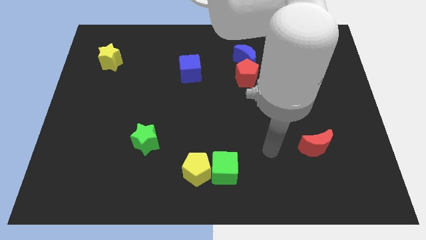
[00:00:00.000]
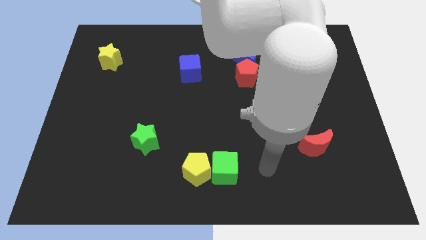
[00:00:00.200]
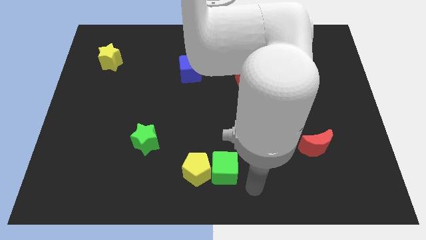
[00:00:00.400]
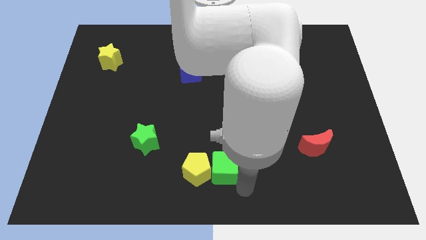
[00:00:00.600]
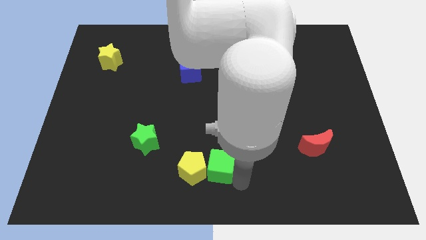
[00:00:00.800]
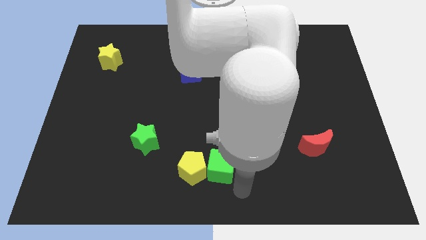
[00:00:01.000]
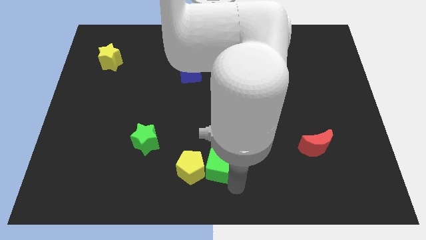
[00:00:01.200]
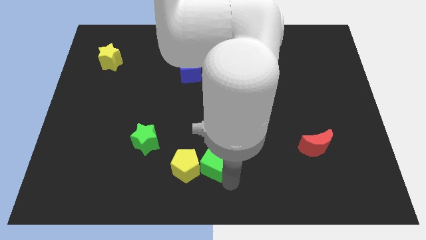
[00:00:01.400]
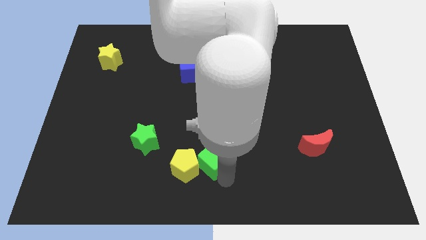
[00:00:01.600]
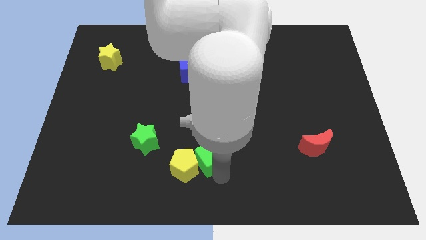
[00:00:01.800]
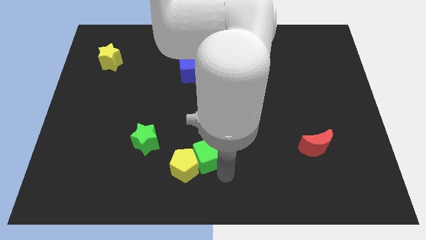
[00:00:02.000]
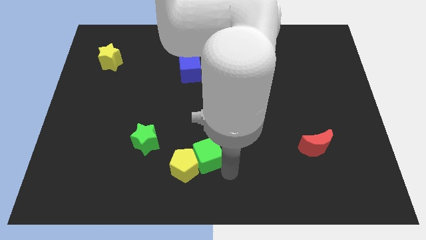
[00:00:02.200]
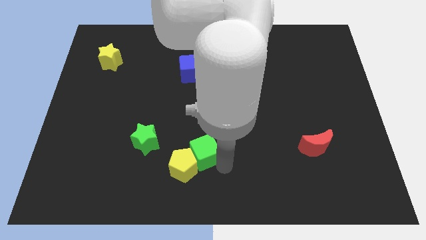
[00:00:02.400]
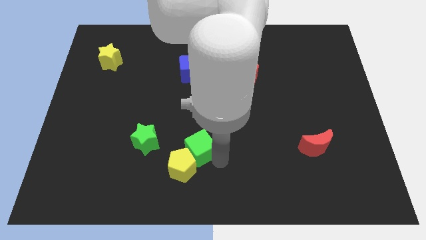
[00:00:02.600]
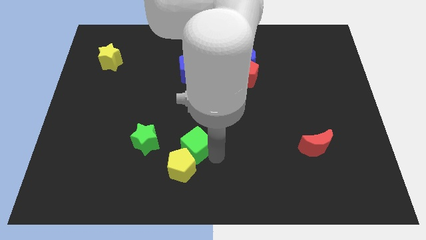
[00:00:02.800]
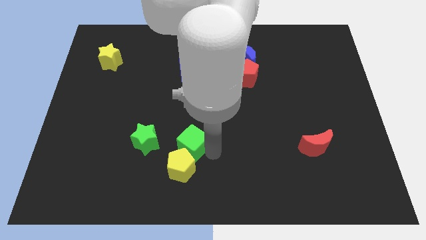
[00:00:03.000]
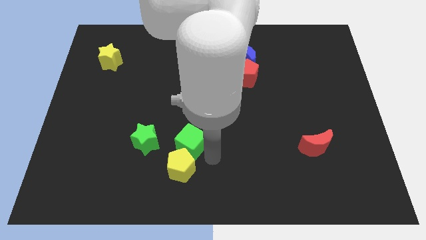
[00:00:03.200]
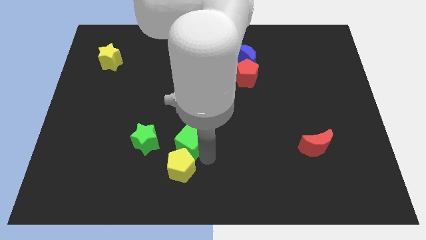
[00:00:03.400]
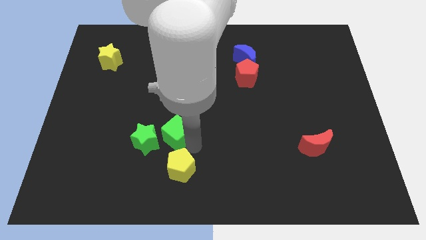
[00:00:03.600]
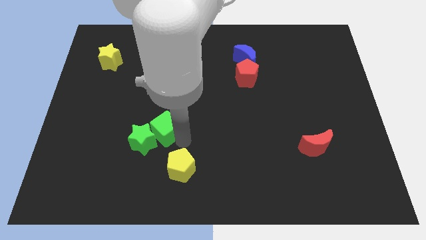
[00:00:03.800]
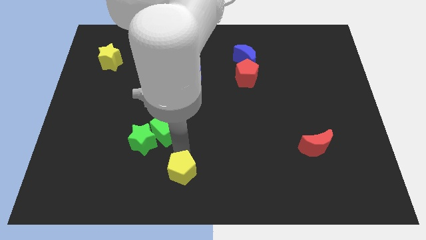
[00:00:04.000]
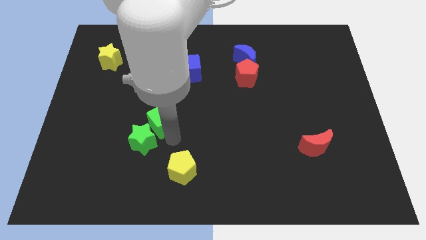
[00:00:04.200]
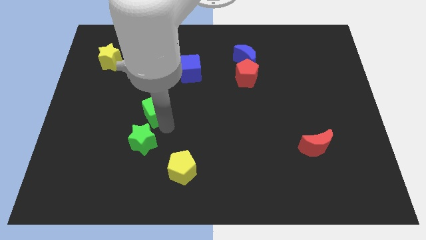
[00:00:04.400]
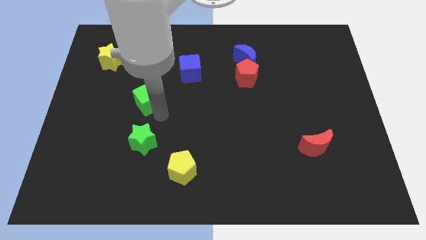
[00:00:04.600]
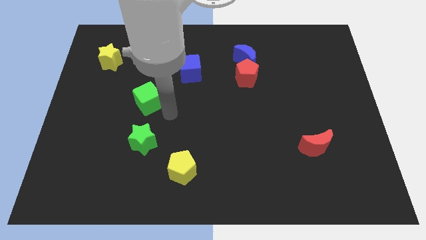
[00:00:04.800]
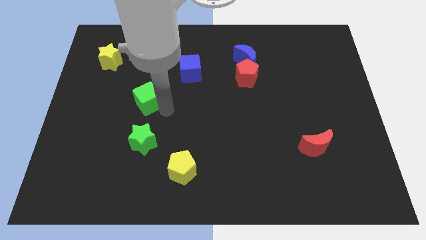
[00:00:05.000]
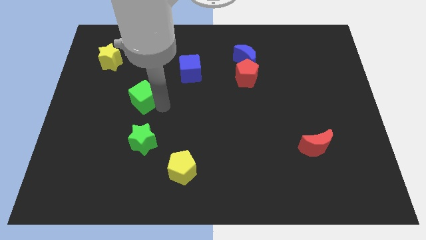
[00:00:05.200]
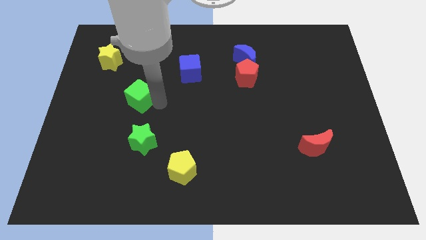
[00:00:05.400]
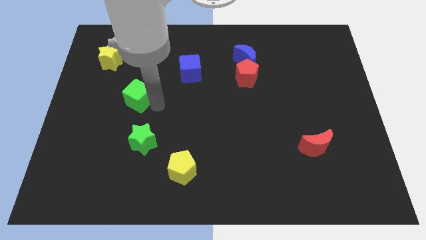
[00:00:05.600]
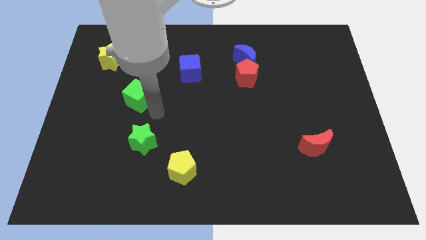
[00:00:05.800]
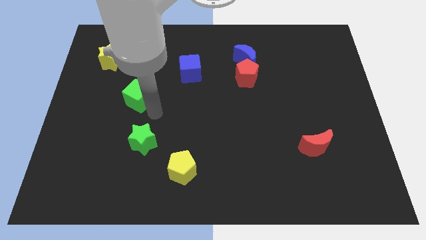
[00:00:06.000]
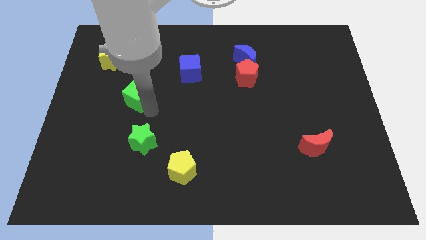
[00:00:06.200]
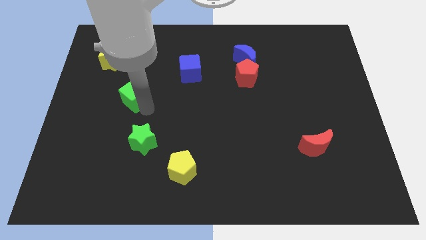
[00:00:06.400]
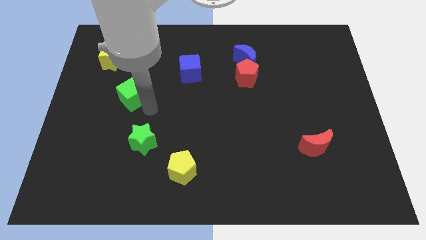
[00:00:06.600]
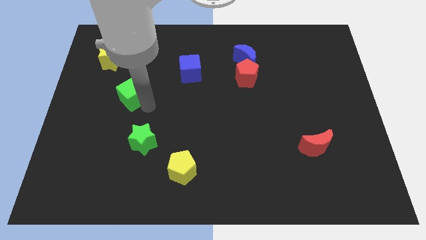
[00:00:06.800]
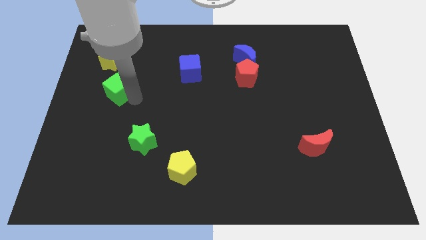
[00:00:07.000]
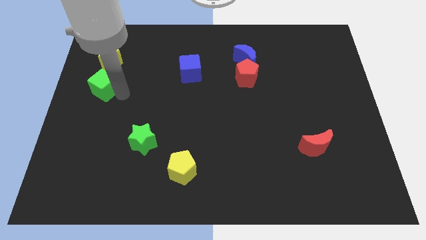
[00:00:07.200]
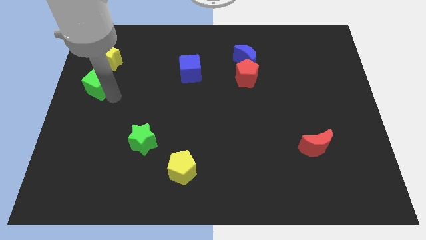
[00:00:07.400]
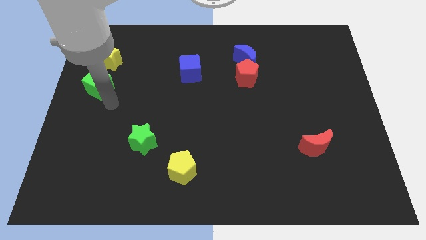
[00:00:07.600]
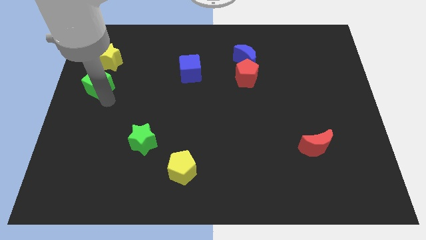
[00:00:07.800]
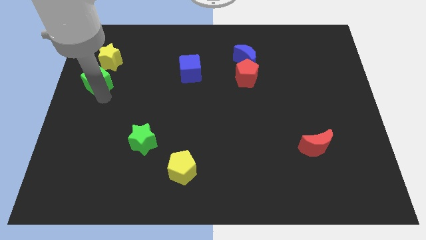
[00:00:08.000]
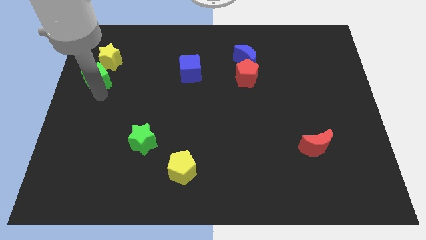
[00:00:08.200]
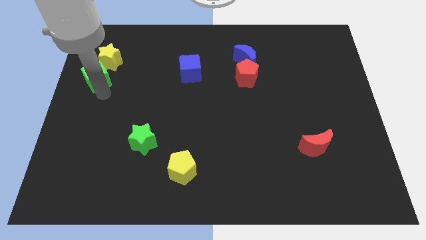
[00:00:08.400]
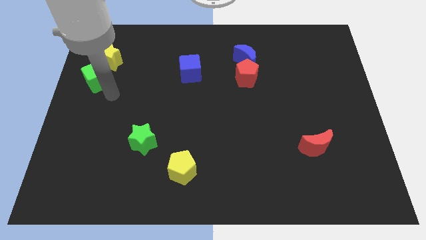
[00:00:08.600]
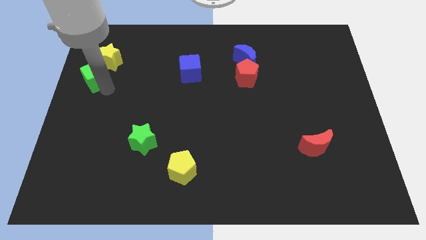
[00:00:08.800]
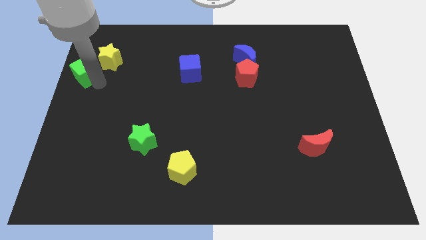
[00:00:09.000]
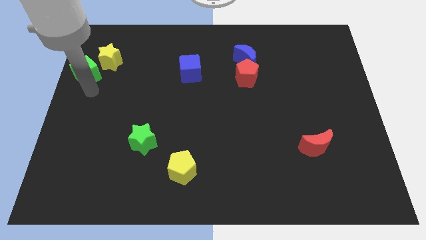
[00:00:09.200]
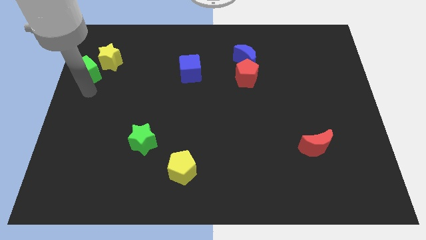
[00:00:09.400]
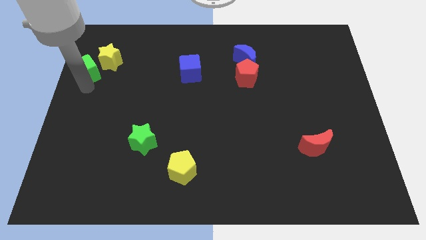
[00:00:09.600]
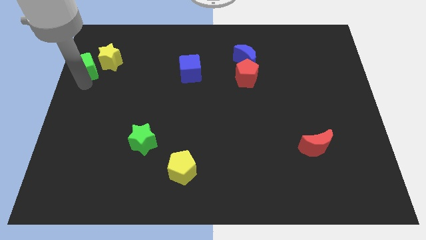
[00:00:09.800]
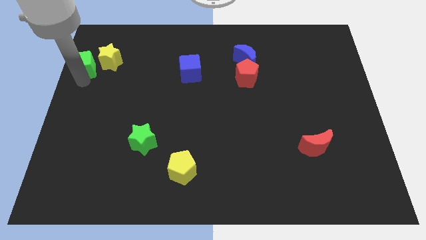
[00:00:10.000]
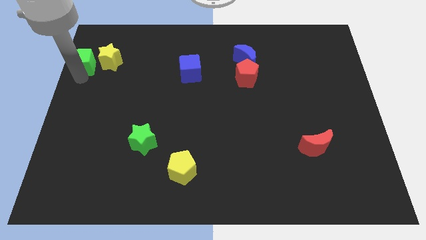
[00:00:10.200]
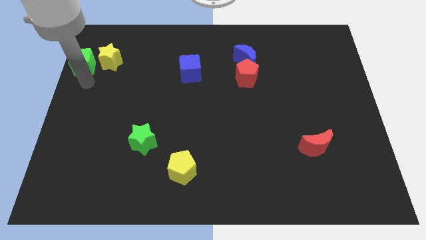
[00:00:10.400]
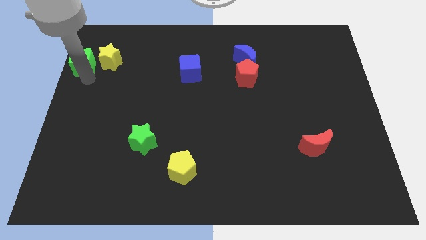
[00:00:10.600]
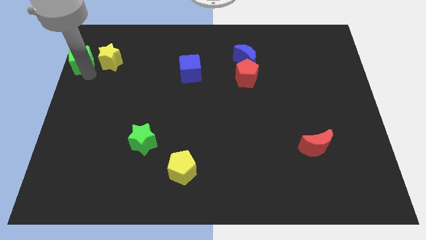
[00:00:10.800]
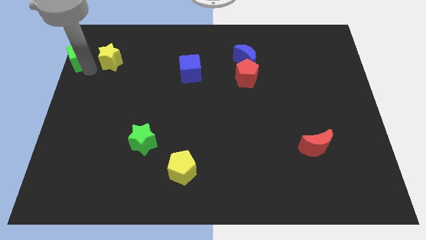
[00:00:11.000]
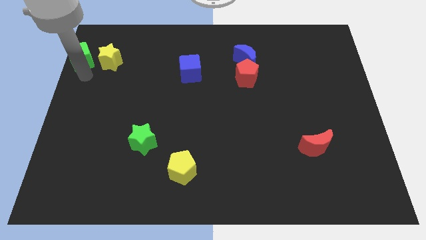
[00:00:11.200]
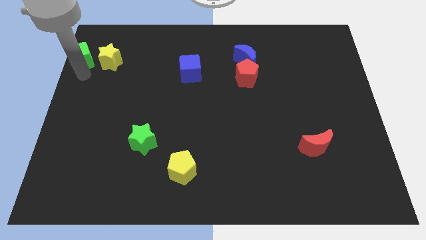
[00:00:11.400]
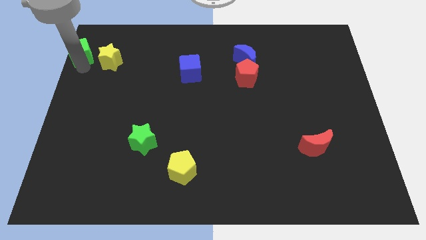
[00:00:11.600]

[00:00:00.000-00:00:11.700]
move the green cube to the top left corner
